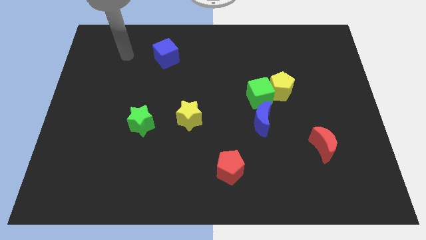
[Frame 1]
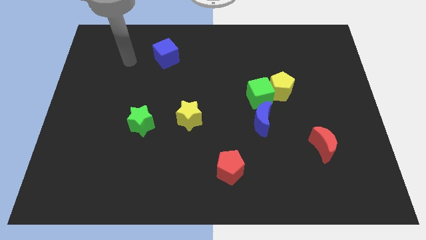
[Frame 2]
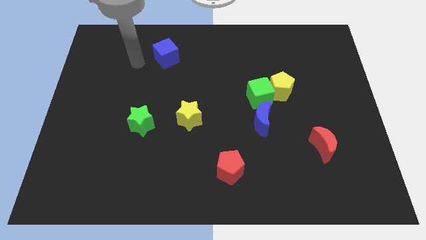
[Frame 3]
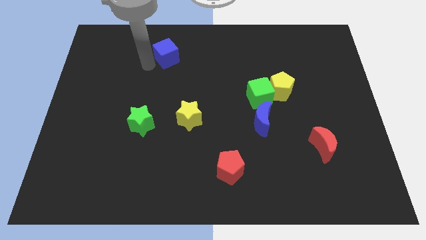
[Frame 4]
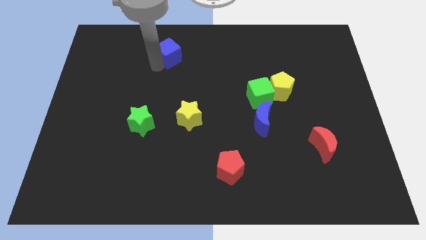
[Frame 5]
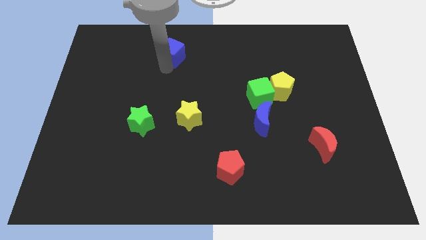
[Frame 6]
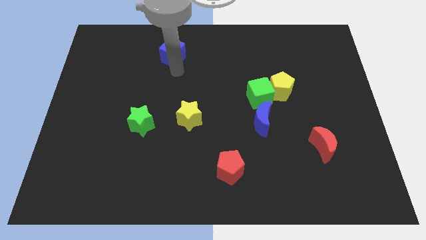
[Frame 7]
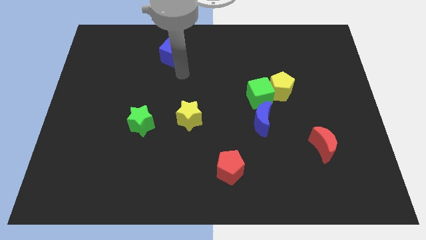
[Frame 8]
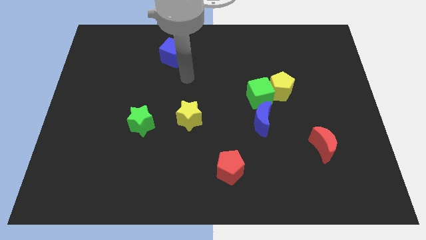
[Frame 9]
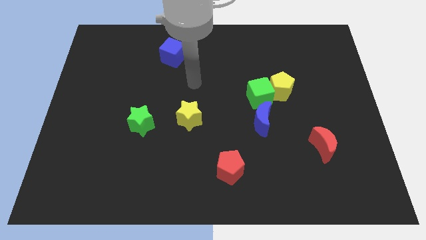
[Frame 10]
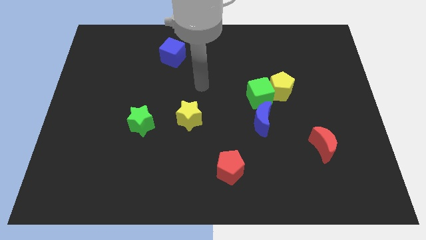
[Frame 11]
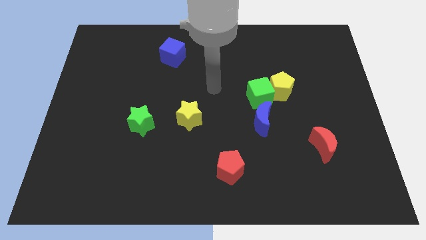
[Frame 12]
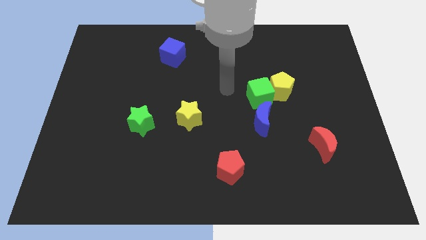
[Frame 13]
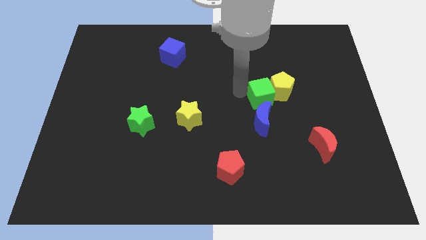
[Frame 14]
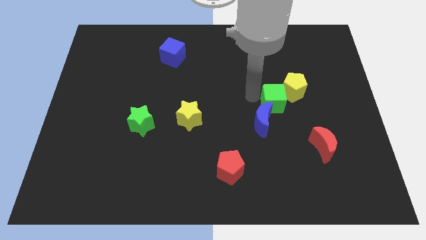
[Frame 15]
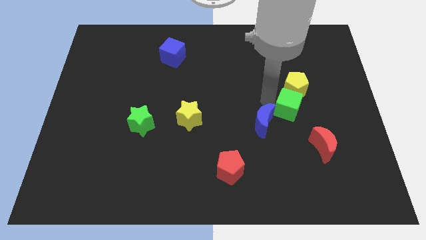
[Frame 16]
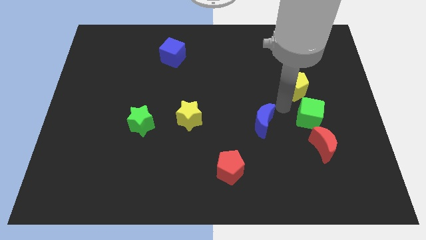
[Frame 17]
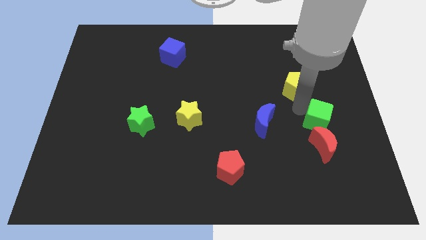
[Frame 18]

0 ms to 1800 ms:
separate the yellow pentagon from the green cube

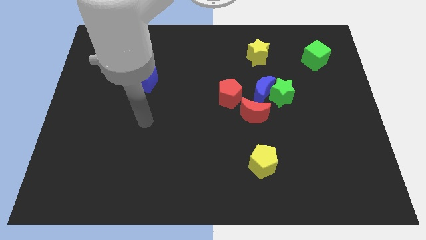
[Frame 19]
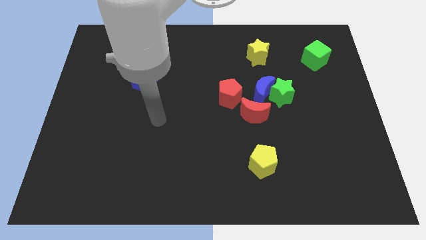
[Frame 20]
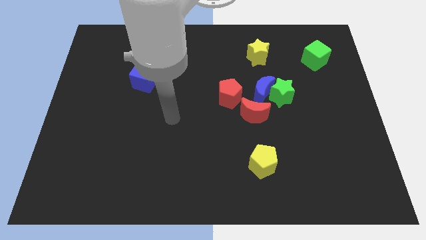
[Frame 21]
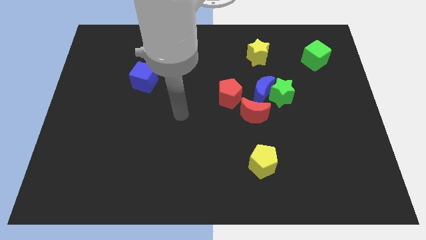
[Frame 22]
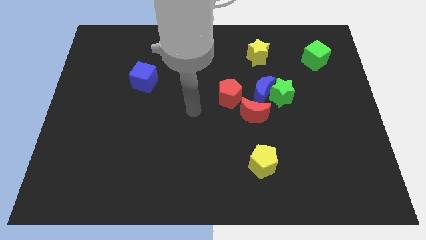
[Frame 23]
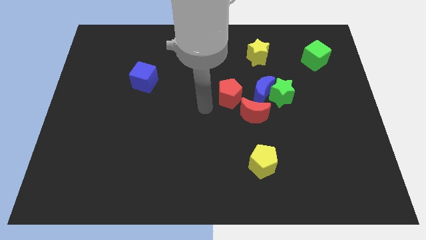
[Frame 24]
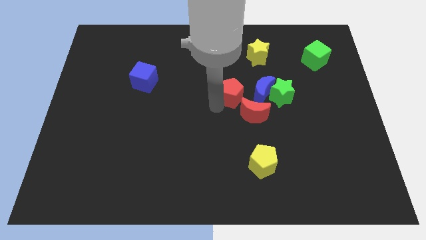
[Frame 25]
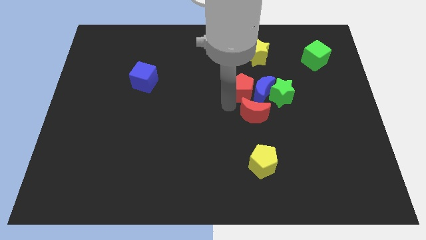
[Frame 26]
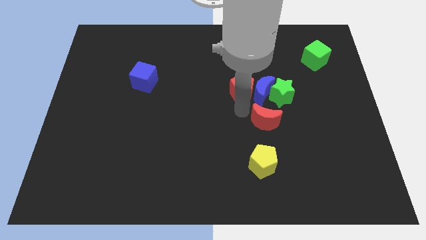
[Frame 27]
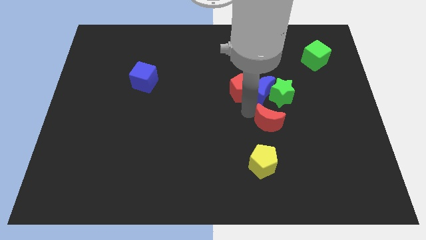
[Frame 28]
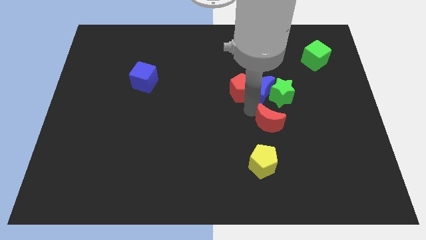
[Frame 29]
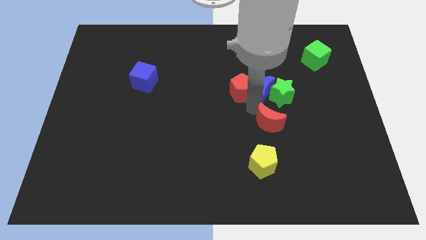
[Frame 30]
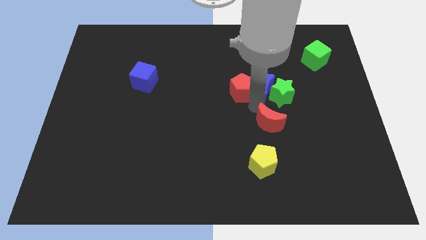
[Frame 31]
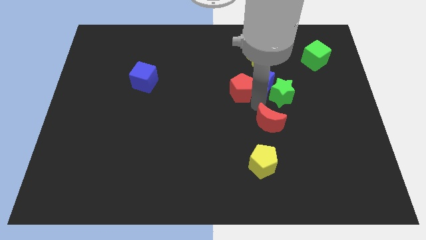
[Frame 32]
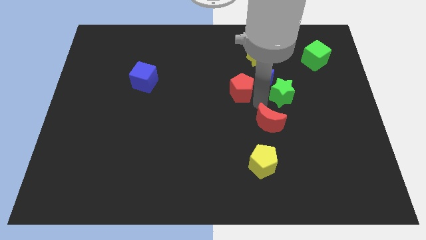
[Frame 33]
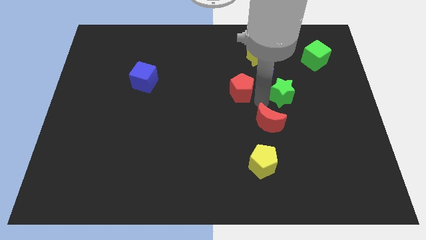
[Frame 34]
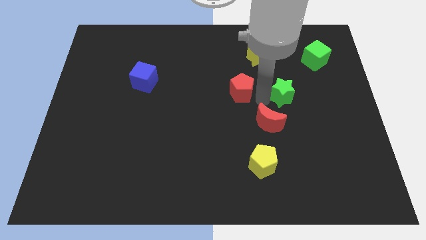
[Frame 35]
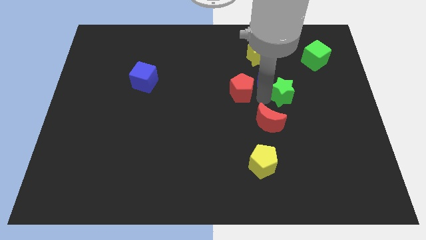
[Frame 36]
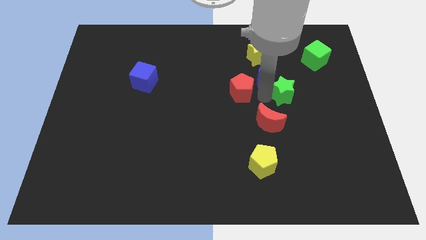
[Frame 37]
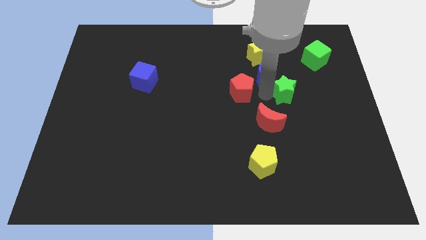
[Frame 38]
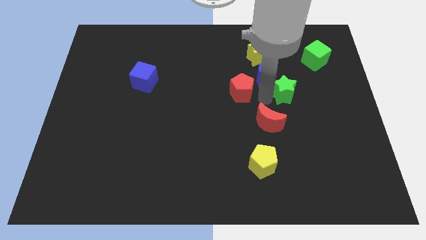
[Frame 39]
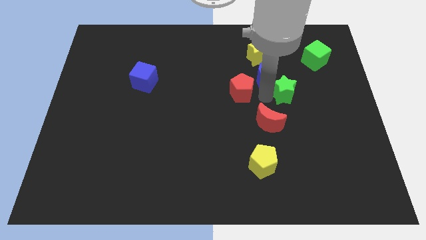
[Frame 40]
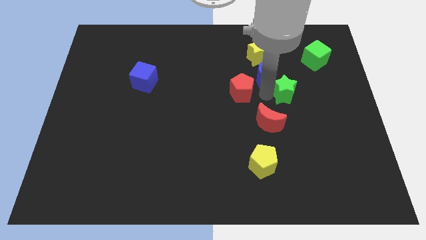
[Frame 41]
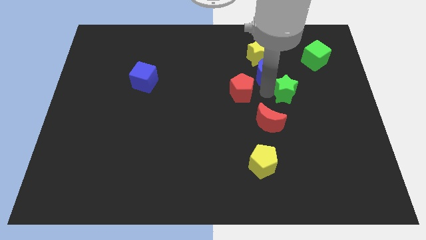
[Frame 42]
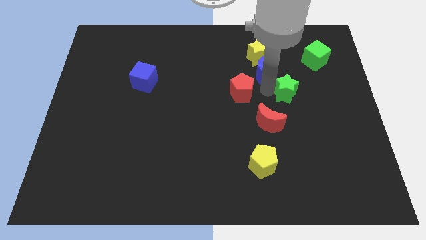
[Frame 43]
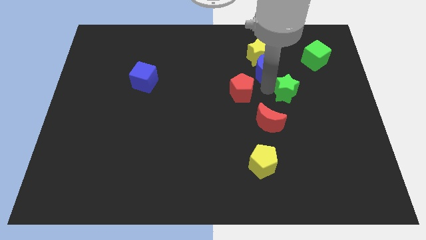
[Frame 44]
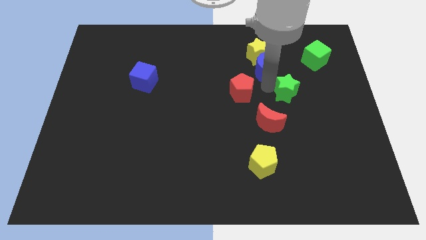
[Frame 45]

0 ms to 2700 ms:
move the blue moon away from the green star, red moon, and red pentagon

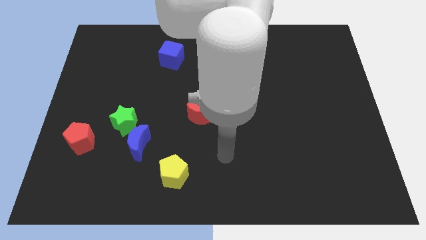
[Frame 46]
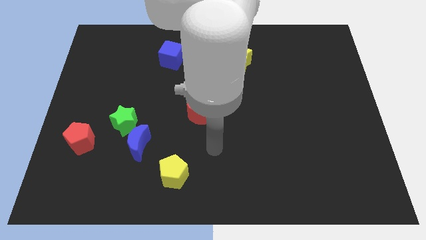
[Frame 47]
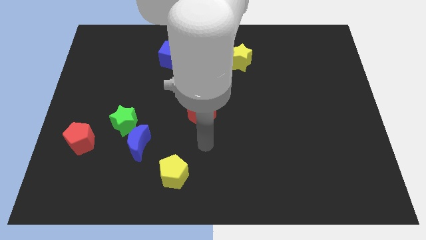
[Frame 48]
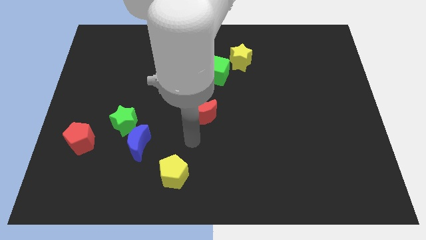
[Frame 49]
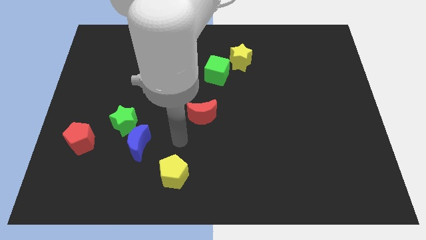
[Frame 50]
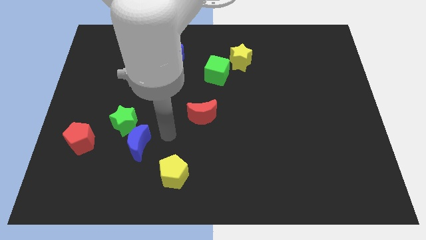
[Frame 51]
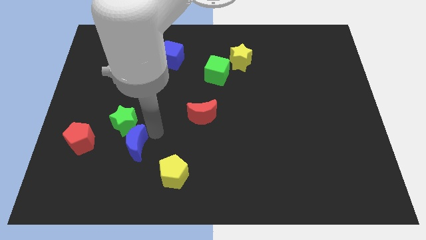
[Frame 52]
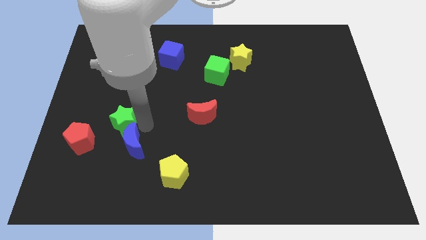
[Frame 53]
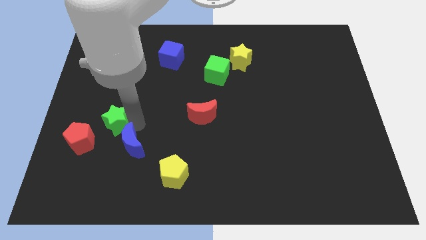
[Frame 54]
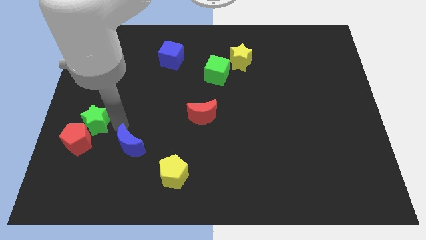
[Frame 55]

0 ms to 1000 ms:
move the blue moon away from the green star

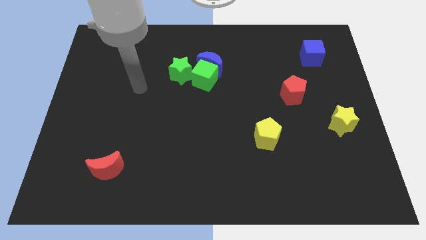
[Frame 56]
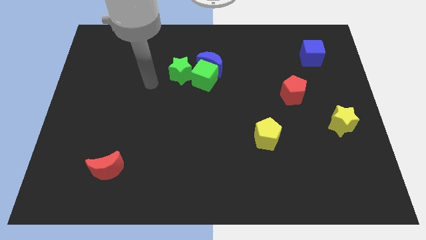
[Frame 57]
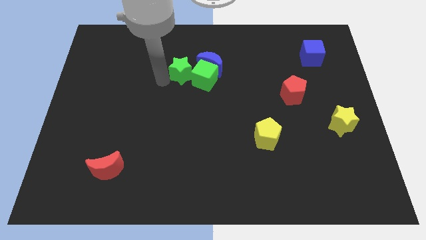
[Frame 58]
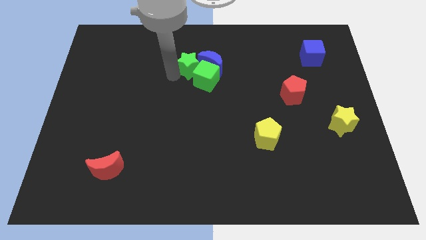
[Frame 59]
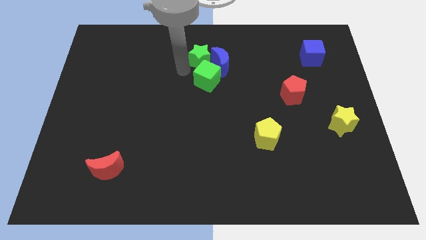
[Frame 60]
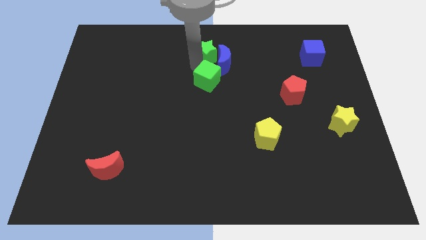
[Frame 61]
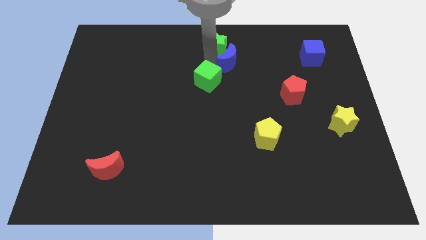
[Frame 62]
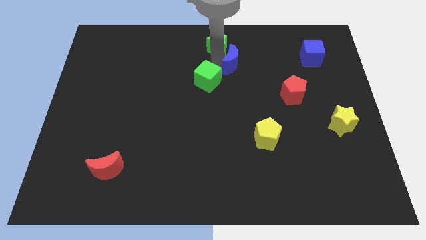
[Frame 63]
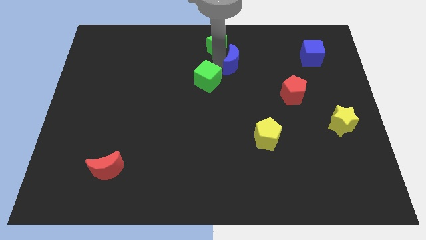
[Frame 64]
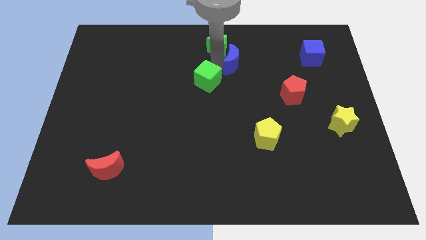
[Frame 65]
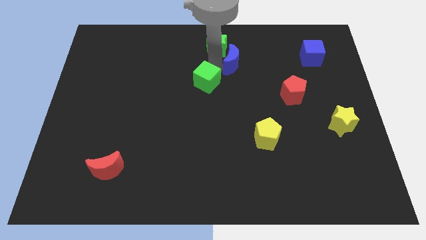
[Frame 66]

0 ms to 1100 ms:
separate the green cube from the blue moon and green star

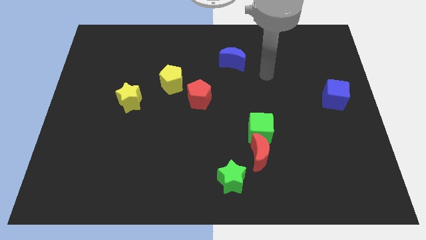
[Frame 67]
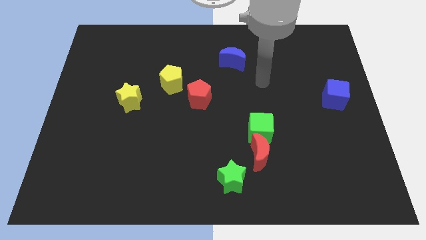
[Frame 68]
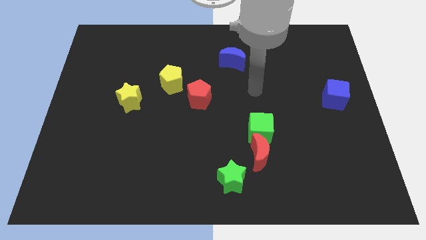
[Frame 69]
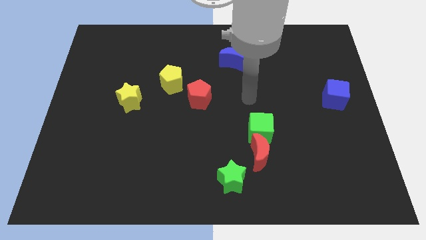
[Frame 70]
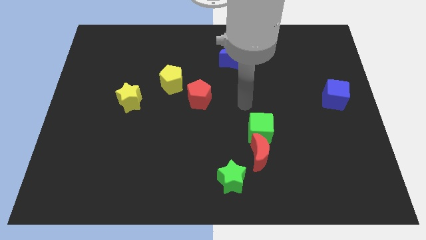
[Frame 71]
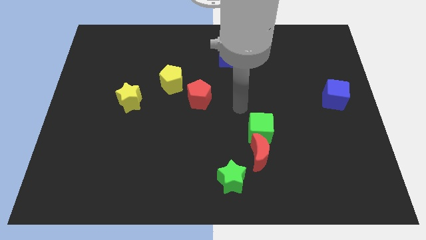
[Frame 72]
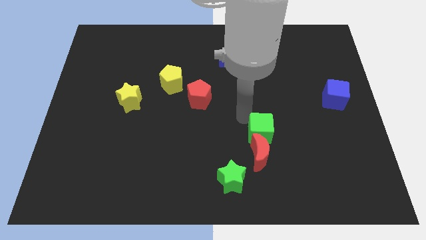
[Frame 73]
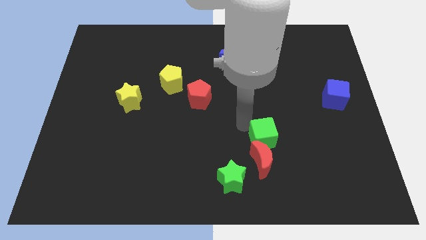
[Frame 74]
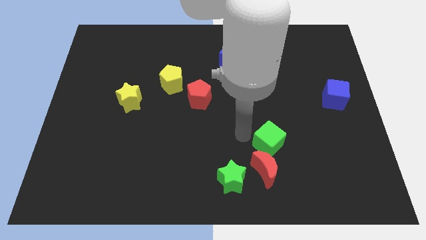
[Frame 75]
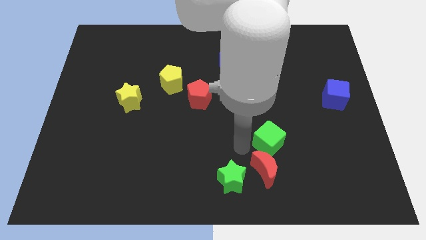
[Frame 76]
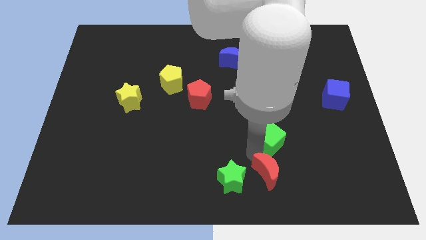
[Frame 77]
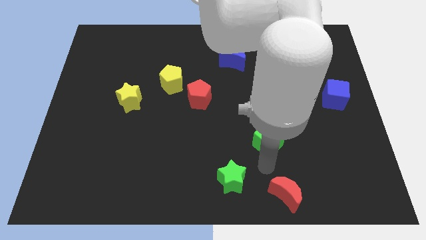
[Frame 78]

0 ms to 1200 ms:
move the green cube away from the red moon

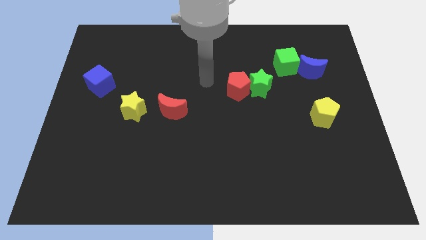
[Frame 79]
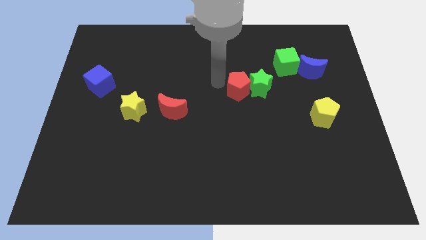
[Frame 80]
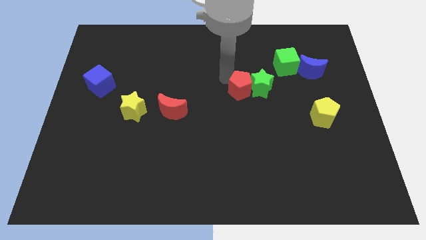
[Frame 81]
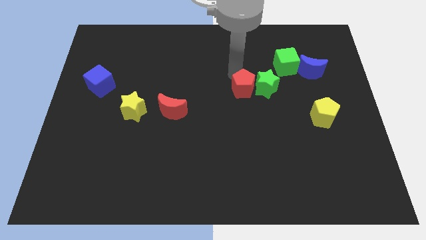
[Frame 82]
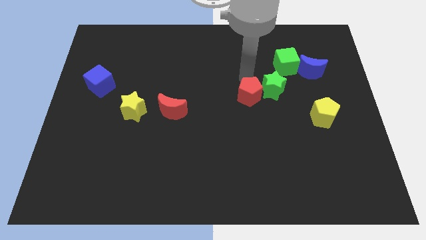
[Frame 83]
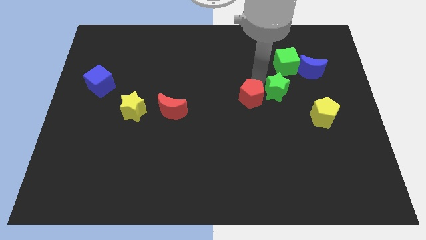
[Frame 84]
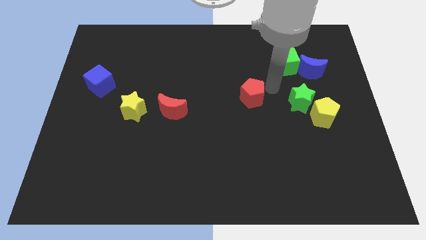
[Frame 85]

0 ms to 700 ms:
move the red pentagon away from the green star

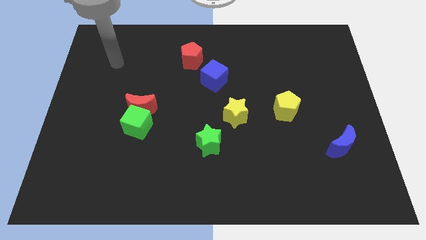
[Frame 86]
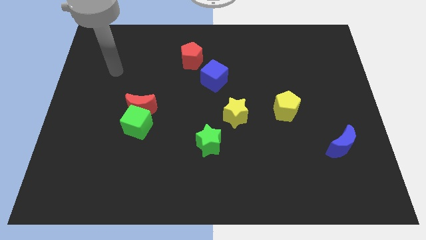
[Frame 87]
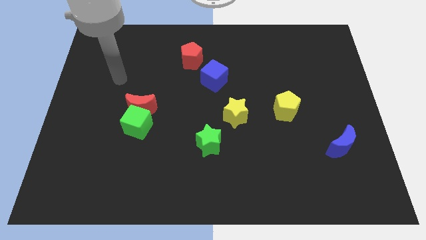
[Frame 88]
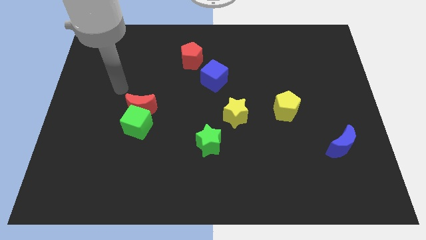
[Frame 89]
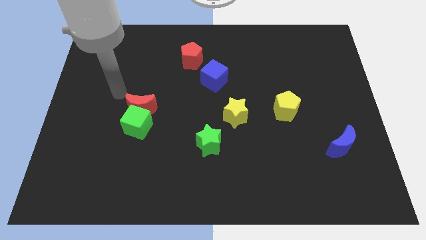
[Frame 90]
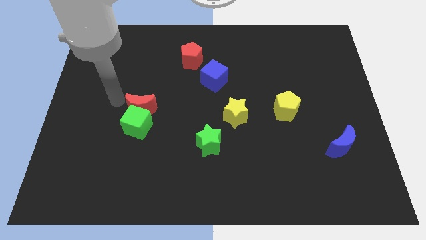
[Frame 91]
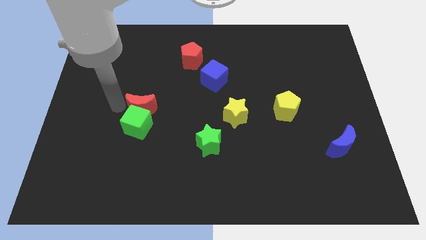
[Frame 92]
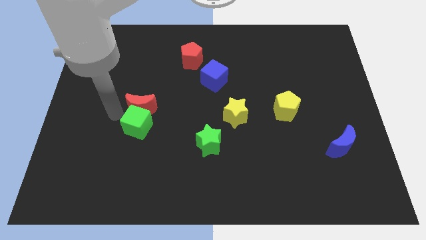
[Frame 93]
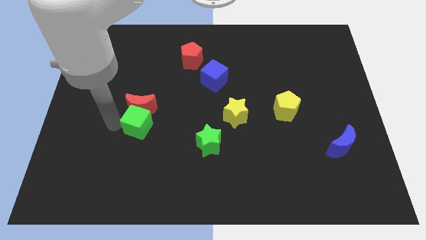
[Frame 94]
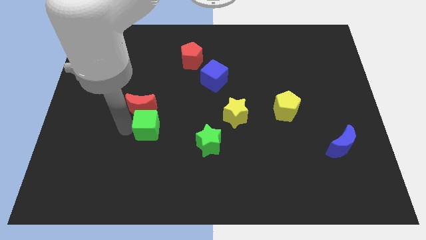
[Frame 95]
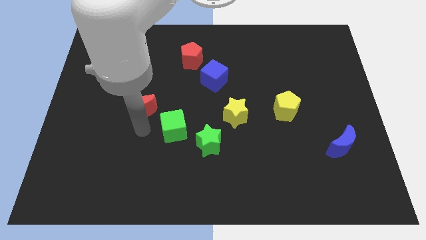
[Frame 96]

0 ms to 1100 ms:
separate the red moon from the green cube
